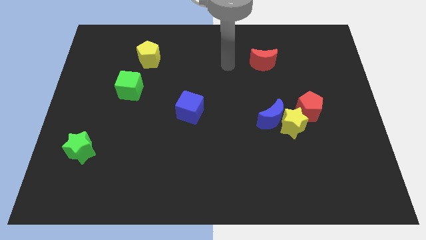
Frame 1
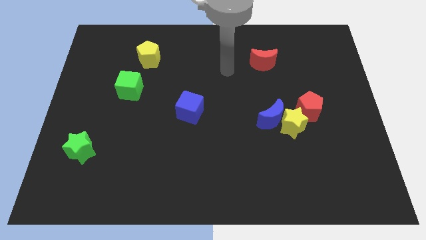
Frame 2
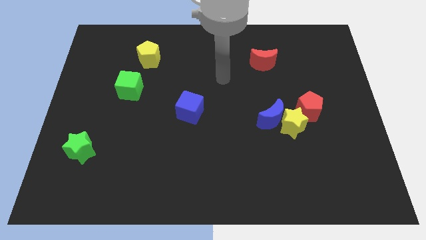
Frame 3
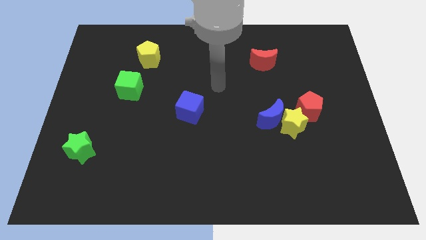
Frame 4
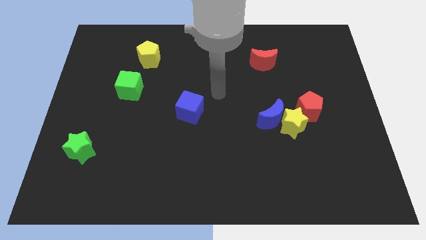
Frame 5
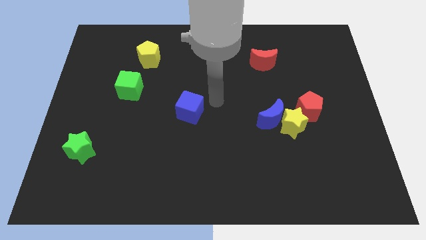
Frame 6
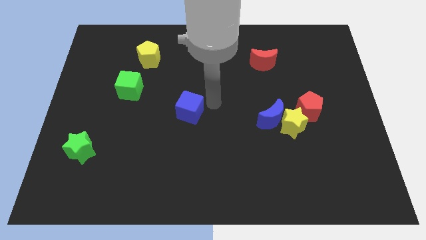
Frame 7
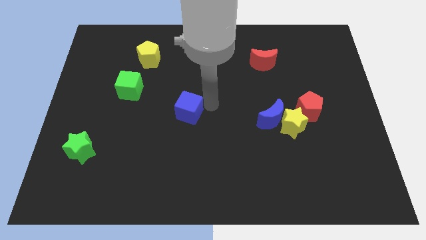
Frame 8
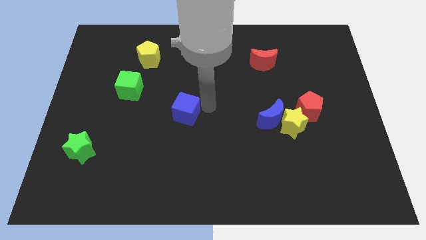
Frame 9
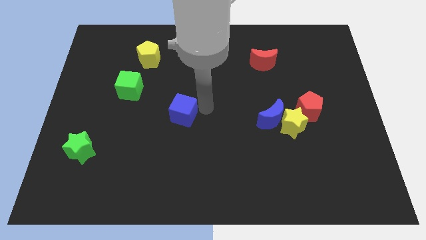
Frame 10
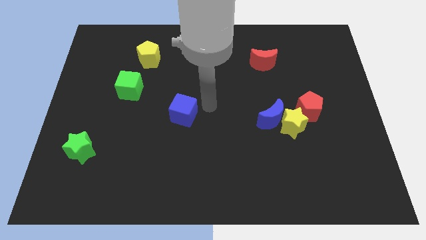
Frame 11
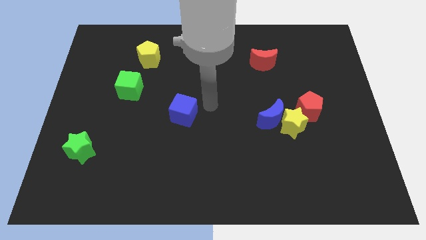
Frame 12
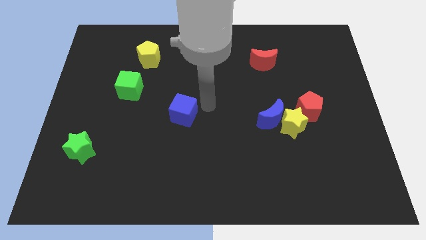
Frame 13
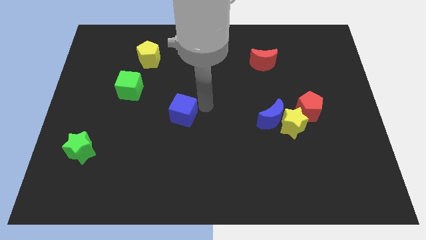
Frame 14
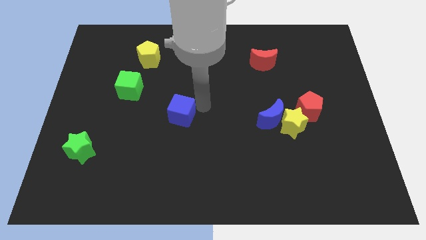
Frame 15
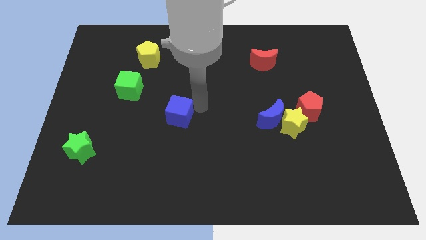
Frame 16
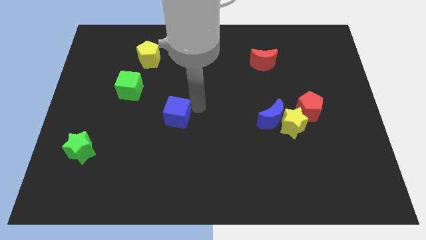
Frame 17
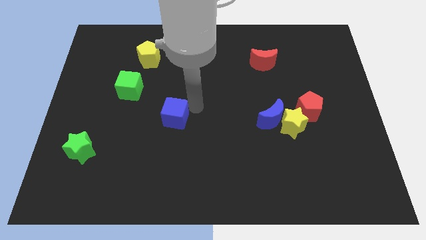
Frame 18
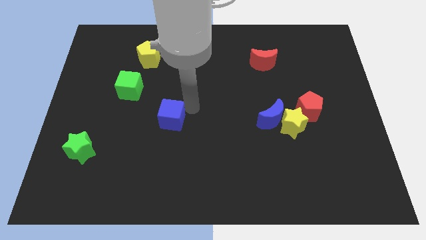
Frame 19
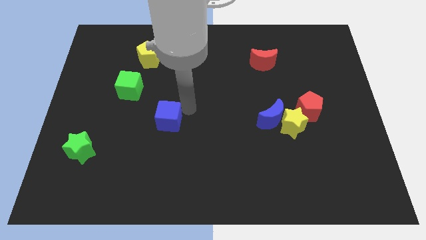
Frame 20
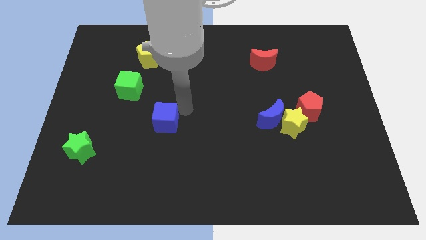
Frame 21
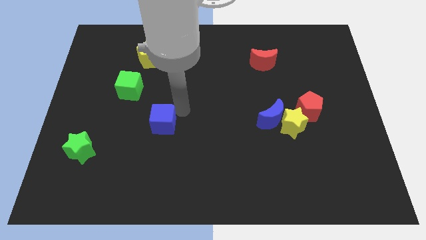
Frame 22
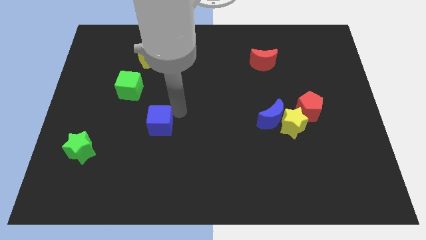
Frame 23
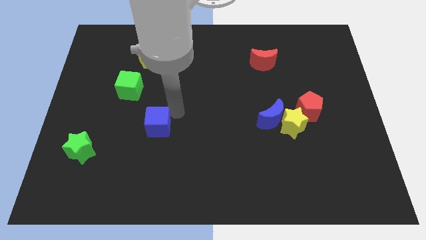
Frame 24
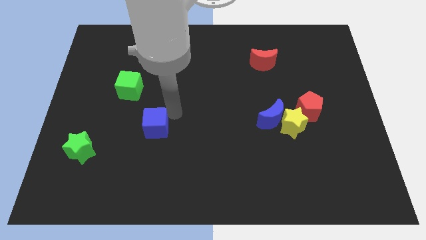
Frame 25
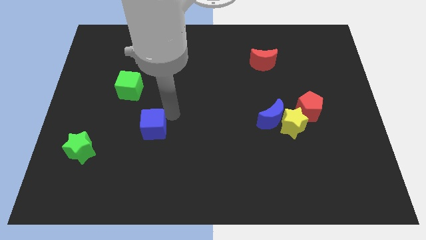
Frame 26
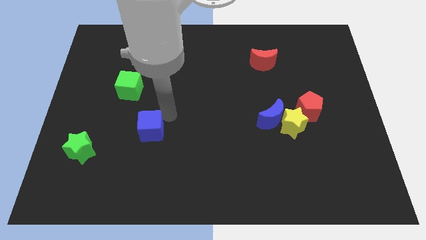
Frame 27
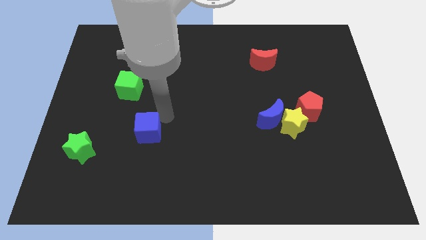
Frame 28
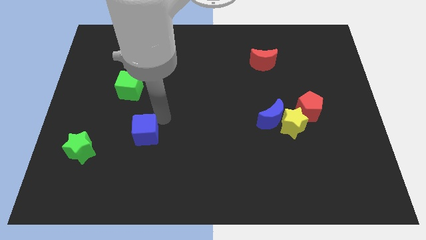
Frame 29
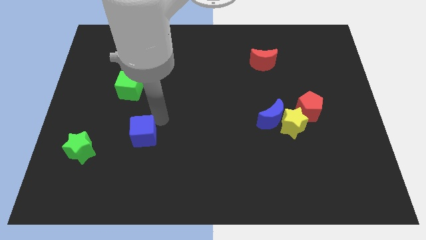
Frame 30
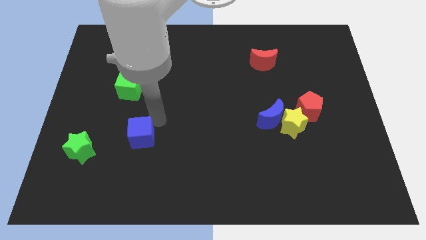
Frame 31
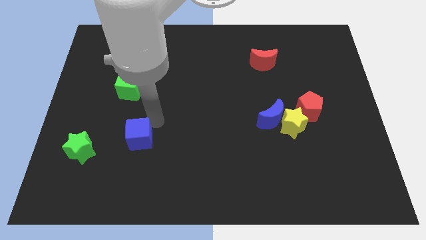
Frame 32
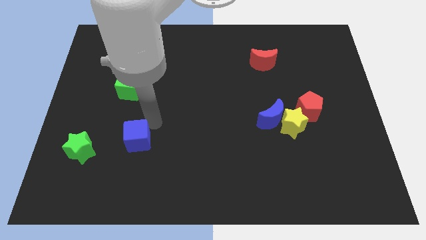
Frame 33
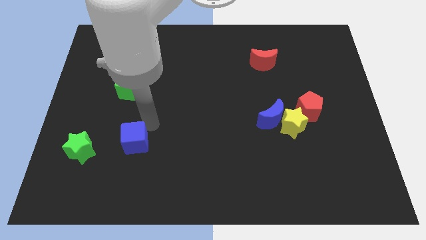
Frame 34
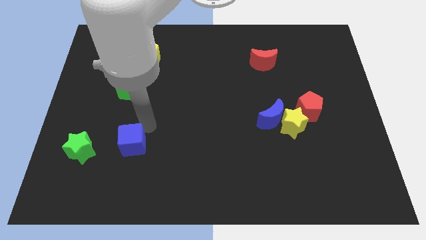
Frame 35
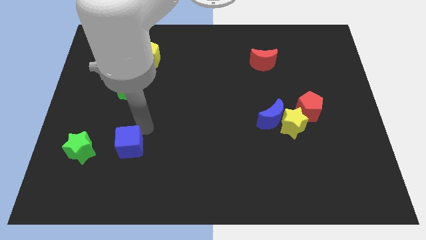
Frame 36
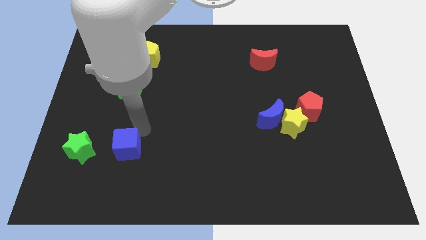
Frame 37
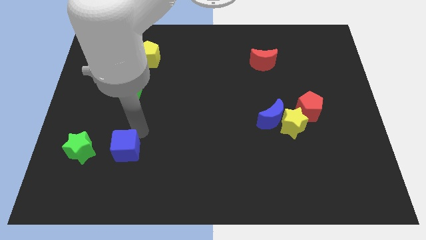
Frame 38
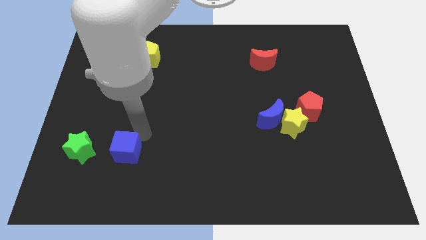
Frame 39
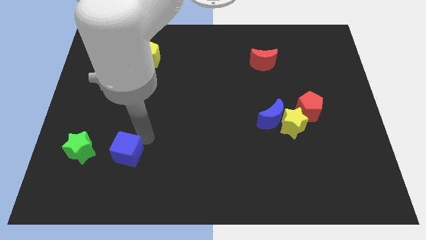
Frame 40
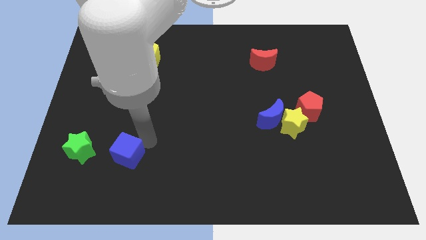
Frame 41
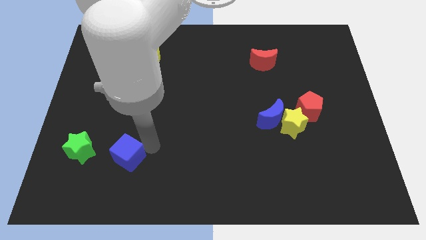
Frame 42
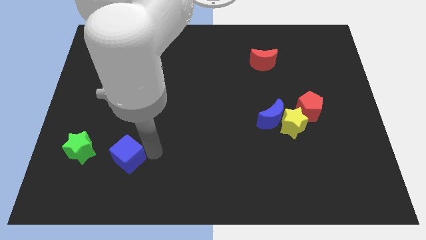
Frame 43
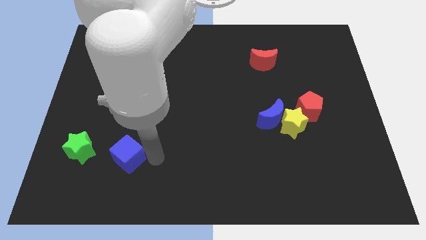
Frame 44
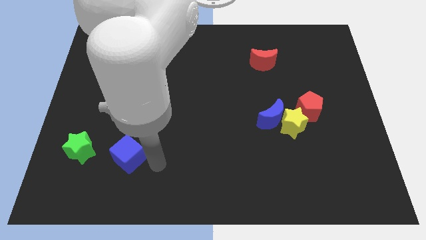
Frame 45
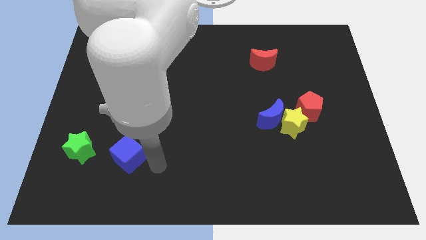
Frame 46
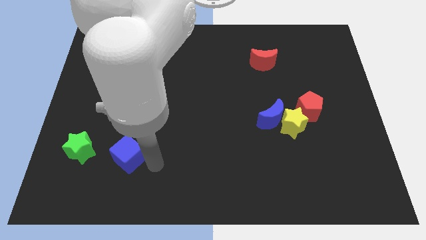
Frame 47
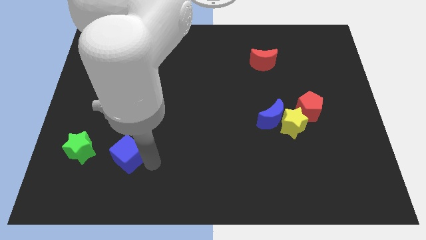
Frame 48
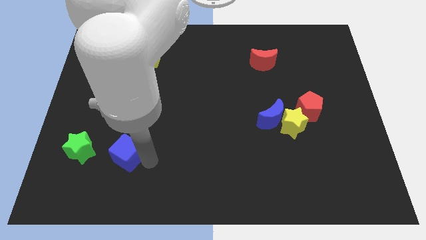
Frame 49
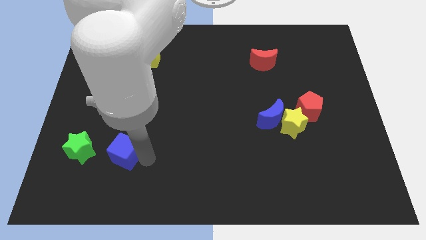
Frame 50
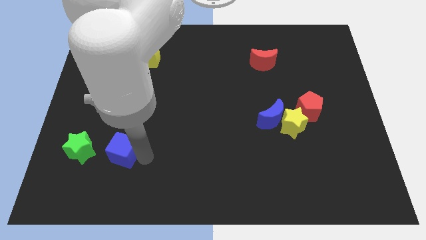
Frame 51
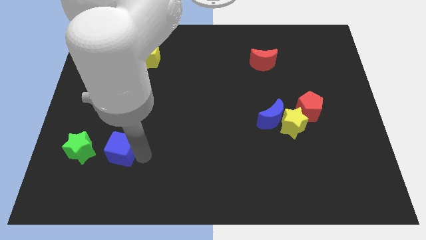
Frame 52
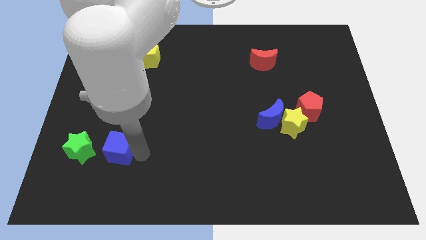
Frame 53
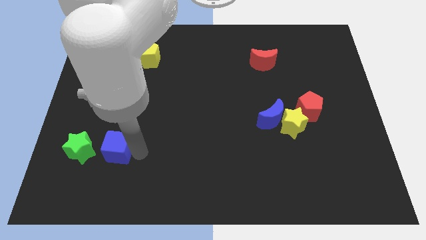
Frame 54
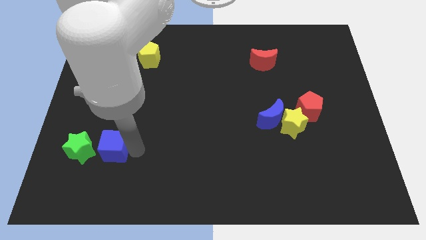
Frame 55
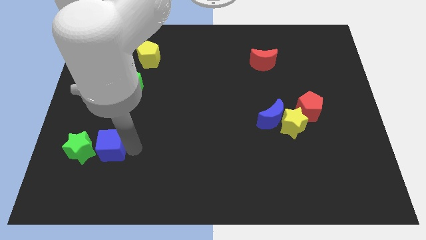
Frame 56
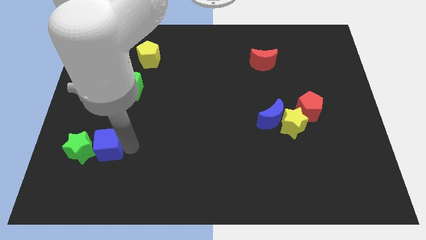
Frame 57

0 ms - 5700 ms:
push the blue cube towards the green star

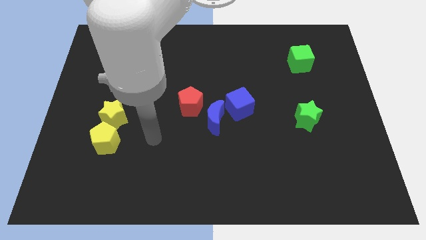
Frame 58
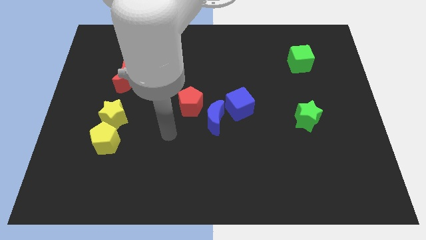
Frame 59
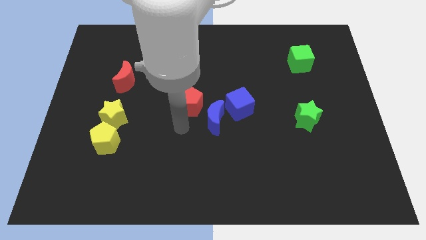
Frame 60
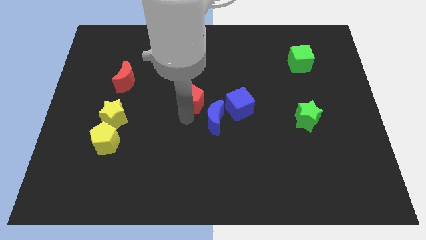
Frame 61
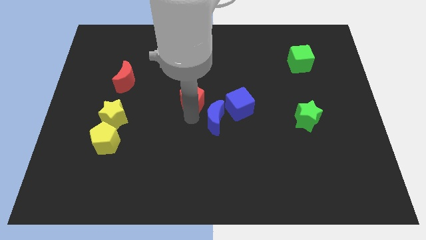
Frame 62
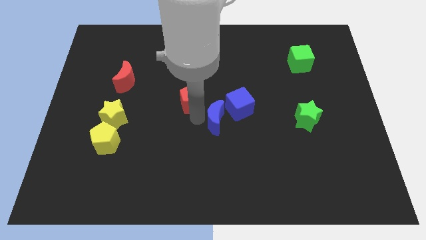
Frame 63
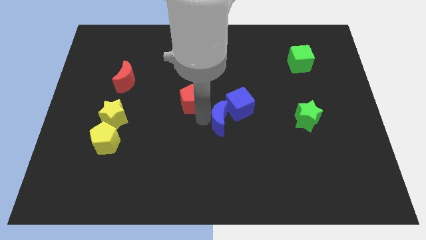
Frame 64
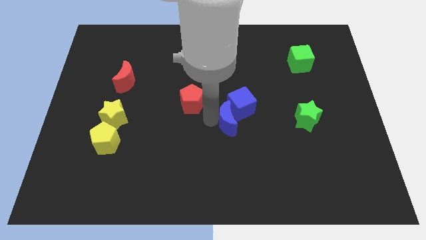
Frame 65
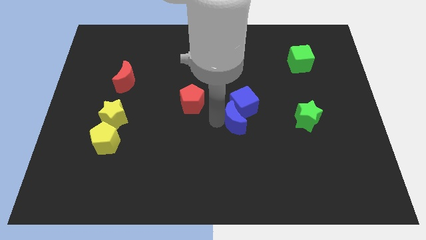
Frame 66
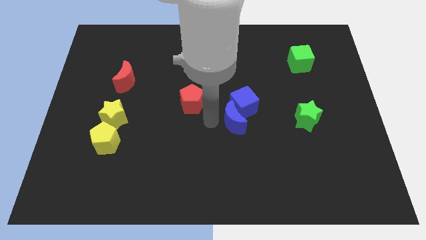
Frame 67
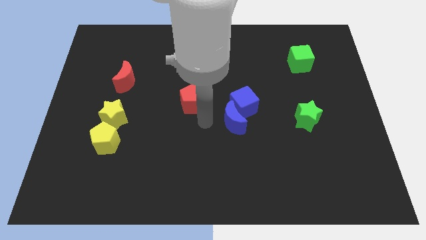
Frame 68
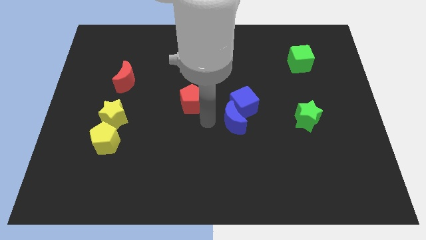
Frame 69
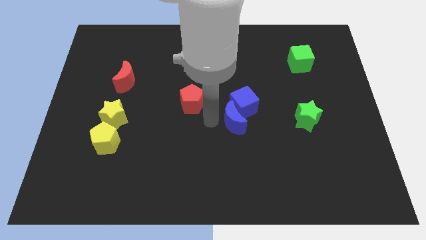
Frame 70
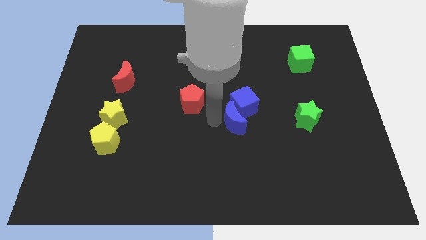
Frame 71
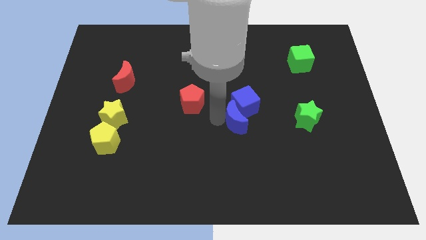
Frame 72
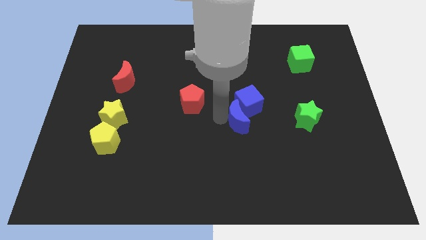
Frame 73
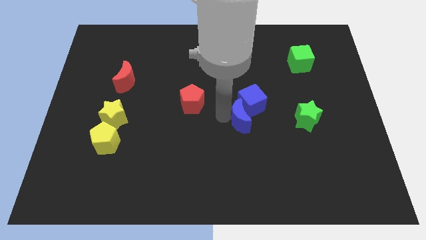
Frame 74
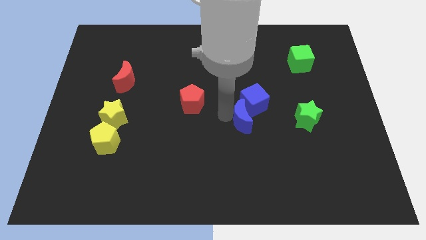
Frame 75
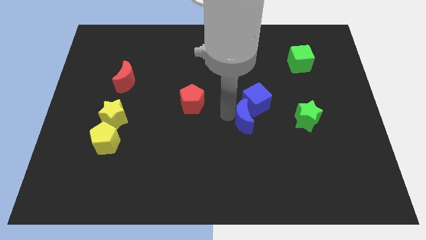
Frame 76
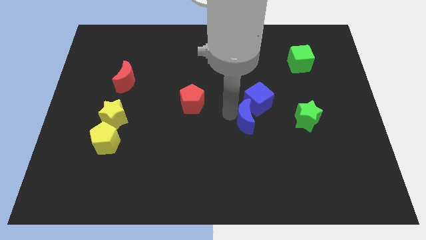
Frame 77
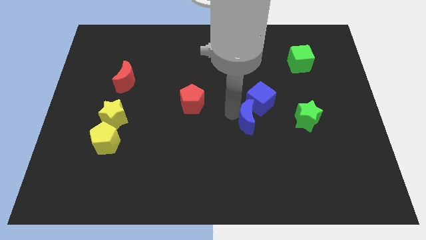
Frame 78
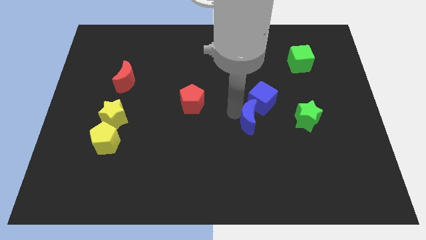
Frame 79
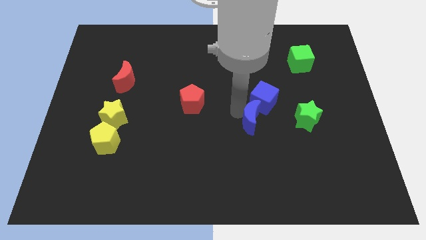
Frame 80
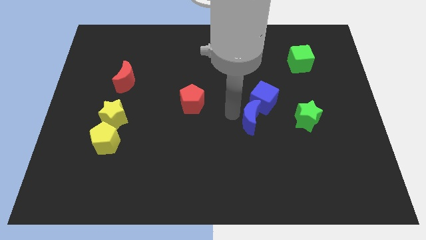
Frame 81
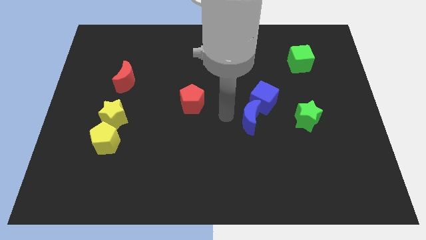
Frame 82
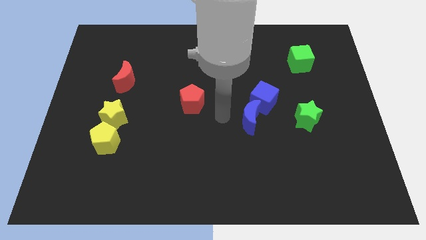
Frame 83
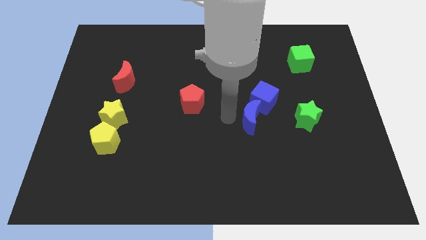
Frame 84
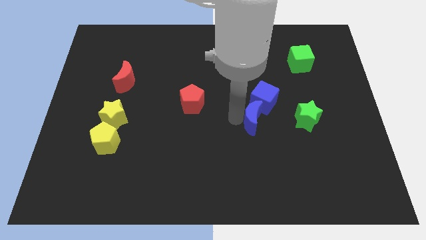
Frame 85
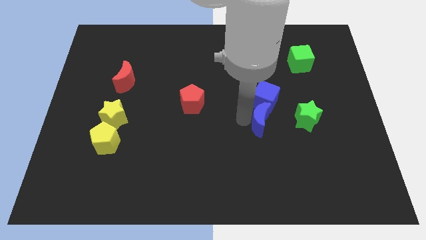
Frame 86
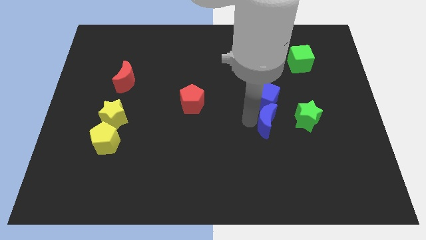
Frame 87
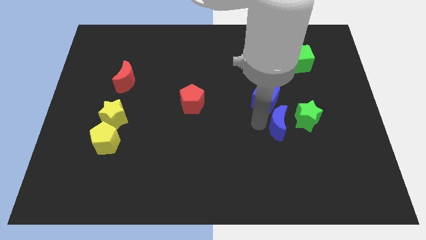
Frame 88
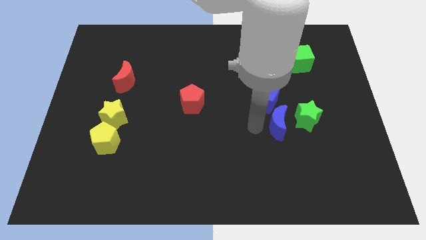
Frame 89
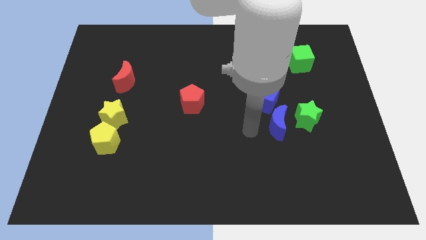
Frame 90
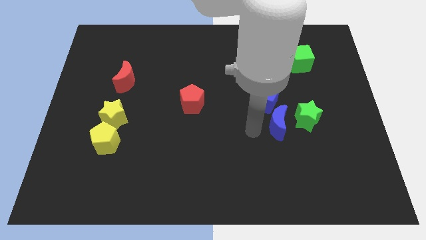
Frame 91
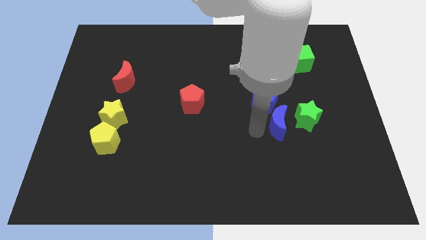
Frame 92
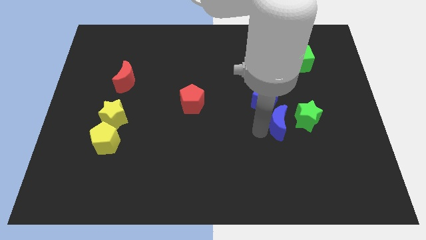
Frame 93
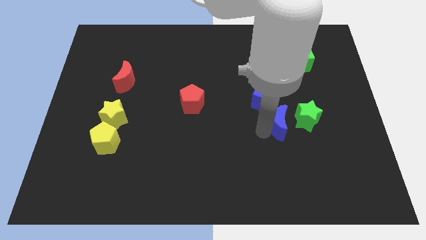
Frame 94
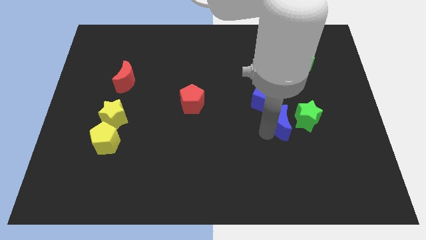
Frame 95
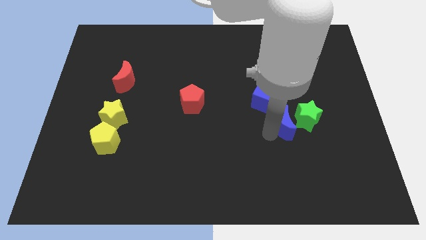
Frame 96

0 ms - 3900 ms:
put the blue moon close to the green star
